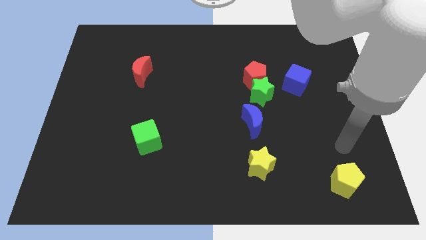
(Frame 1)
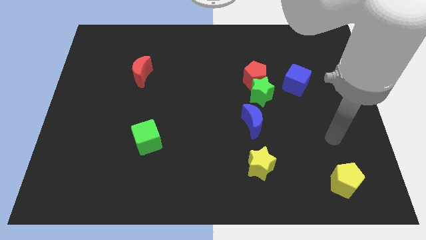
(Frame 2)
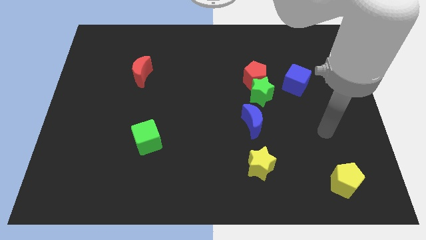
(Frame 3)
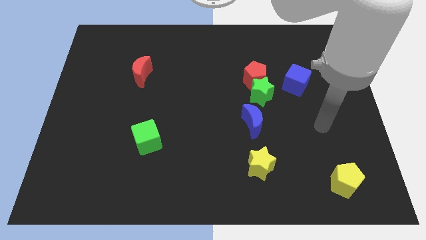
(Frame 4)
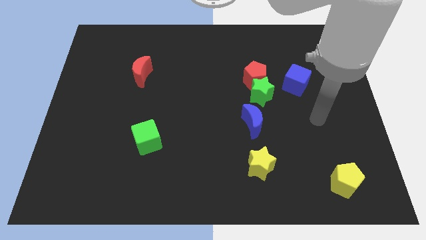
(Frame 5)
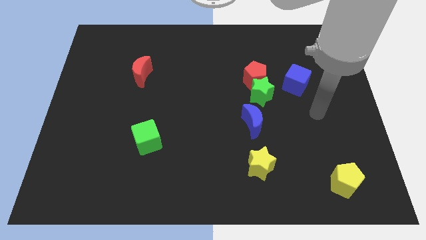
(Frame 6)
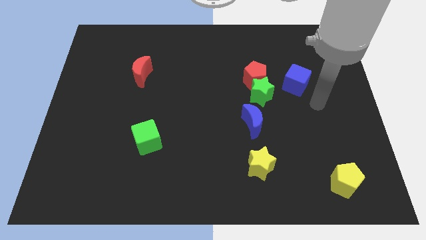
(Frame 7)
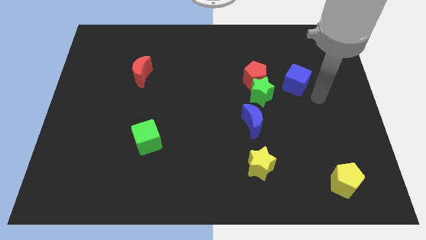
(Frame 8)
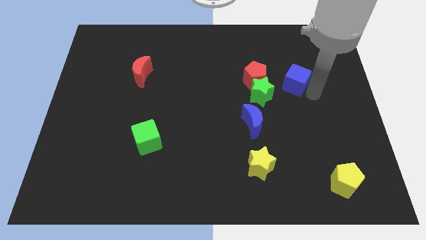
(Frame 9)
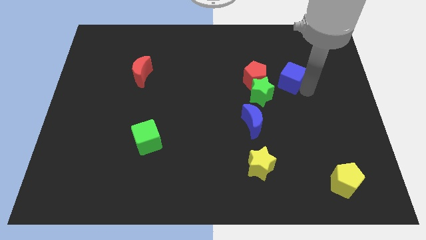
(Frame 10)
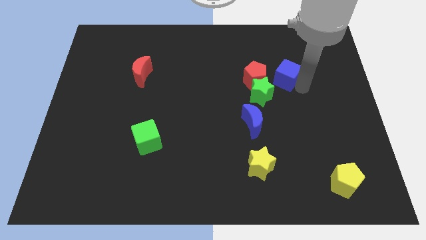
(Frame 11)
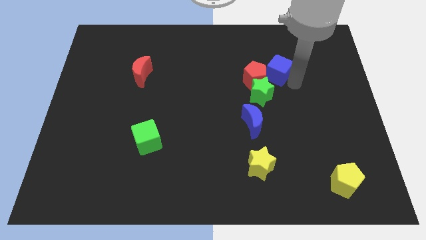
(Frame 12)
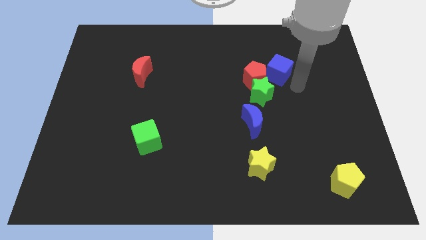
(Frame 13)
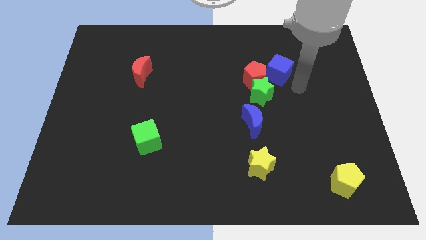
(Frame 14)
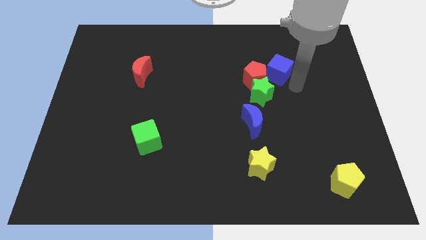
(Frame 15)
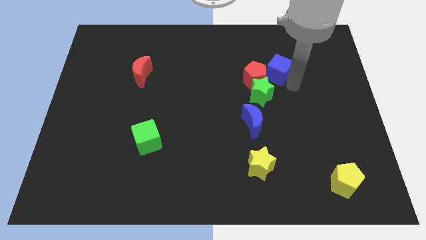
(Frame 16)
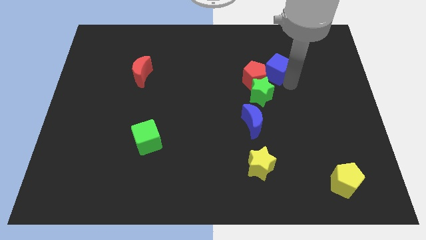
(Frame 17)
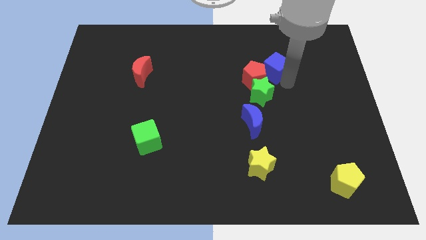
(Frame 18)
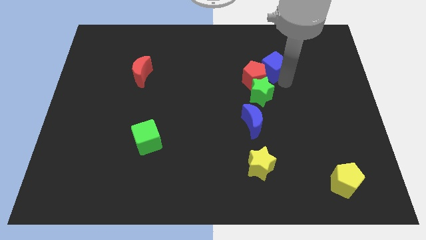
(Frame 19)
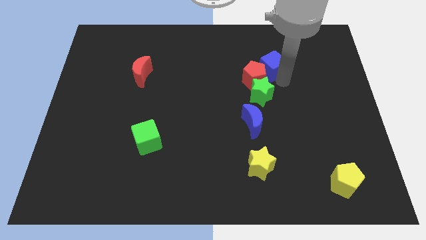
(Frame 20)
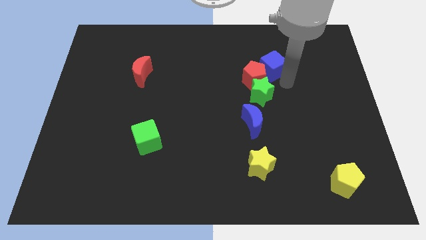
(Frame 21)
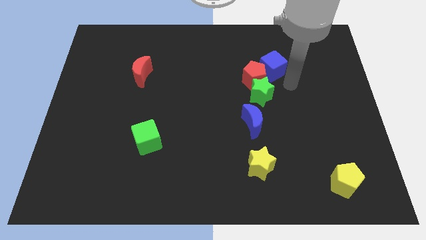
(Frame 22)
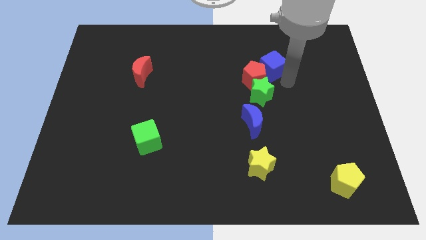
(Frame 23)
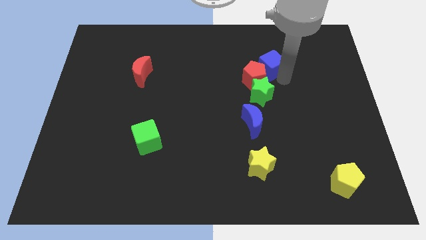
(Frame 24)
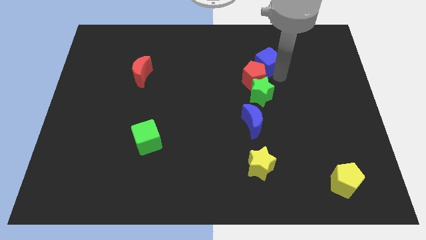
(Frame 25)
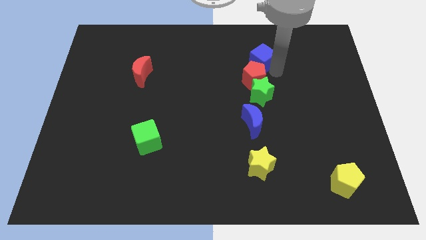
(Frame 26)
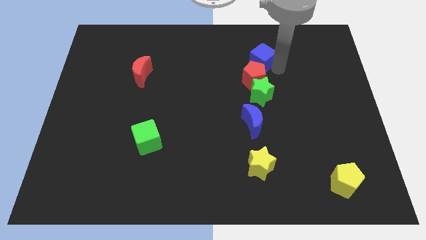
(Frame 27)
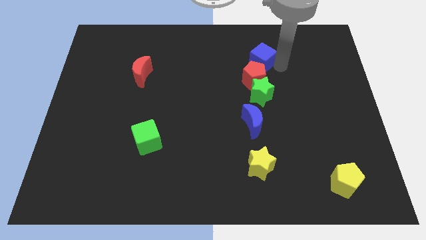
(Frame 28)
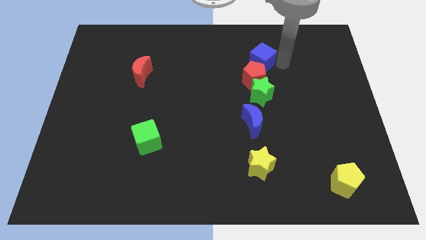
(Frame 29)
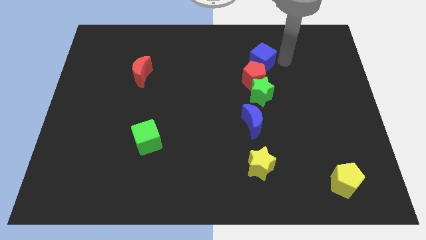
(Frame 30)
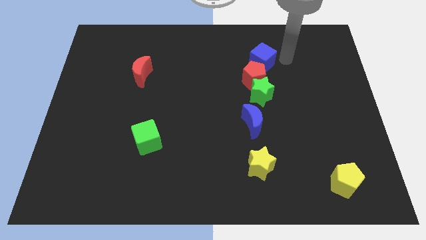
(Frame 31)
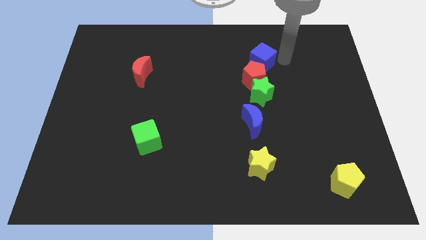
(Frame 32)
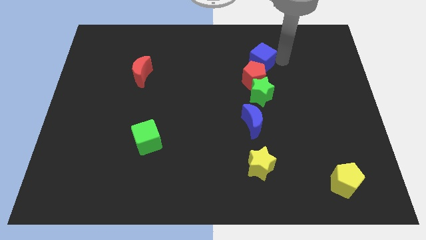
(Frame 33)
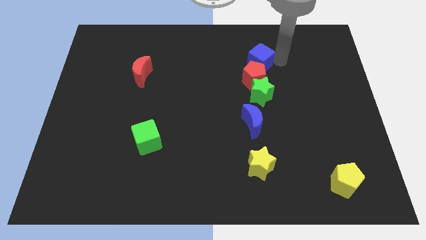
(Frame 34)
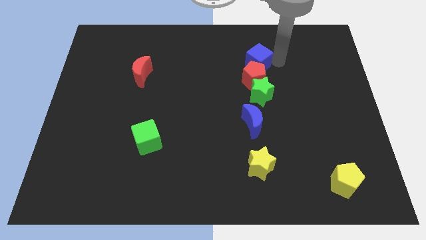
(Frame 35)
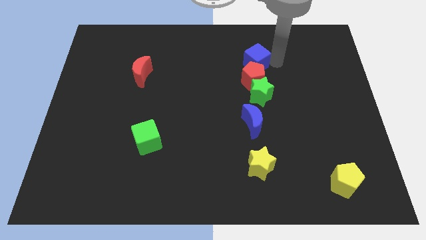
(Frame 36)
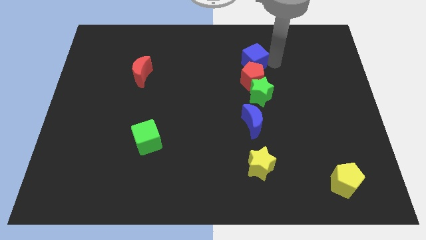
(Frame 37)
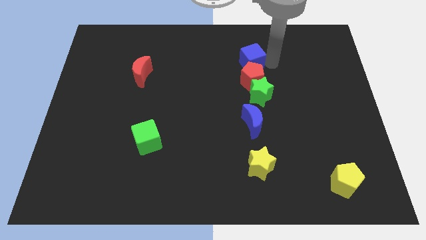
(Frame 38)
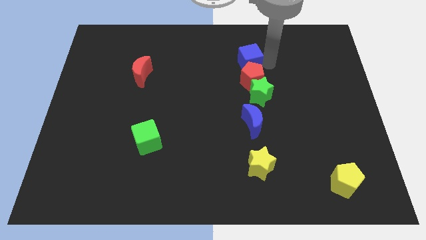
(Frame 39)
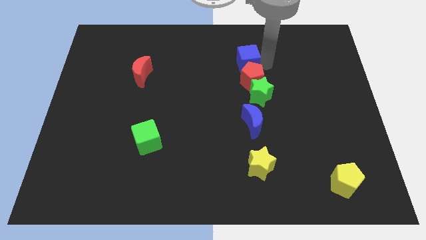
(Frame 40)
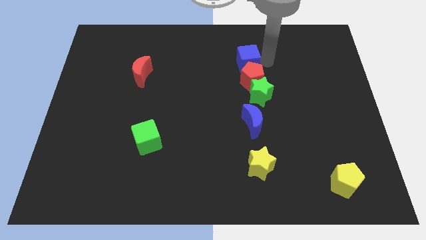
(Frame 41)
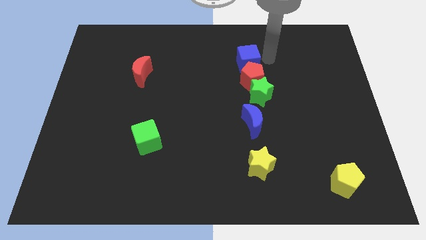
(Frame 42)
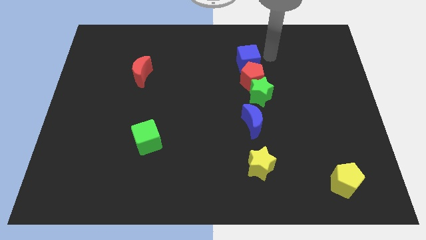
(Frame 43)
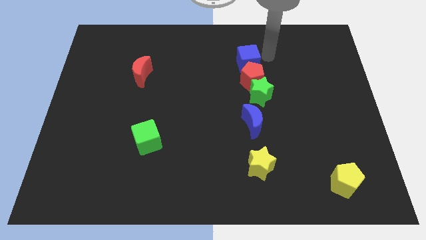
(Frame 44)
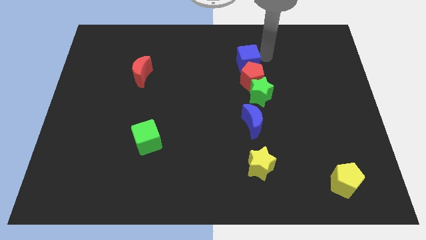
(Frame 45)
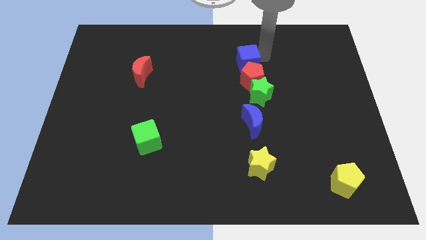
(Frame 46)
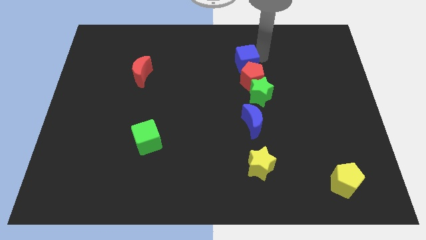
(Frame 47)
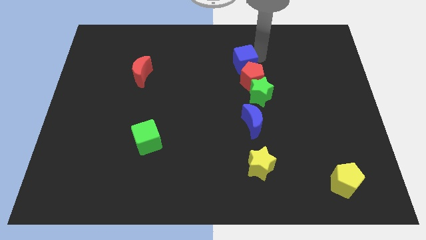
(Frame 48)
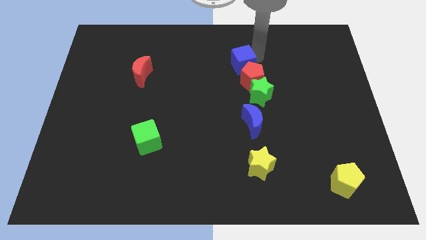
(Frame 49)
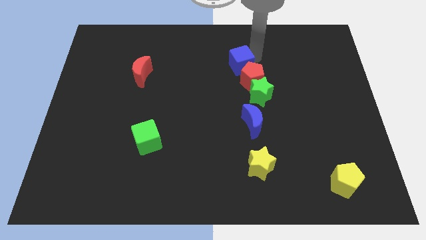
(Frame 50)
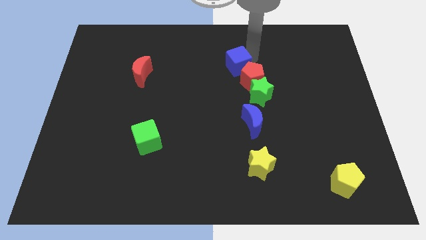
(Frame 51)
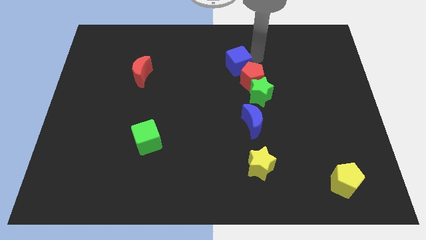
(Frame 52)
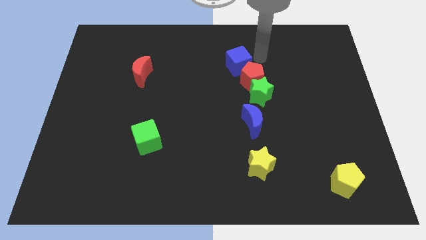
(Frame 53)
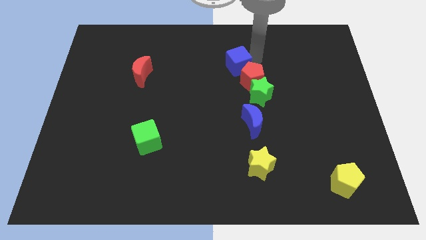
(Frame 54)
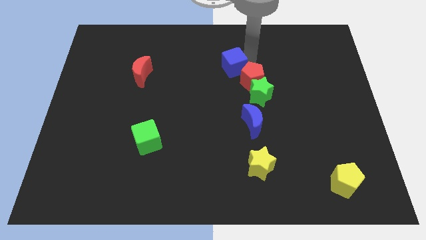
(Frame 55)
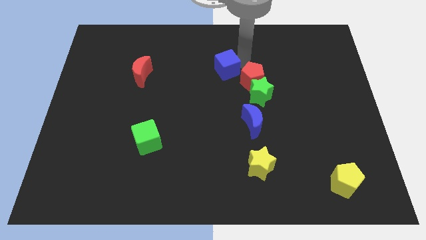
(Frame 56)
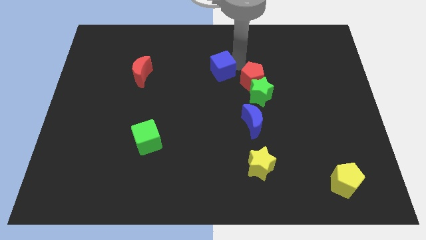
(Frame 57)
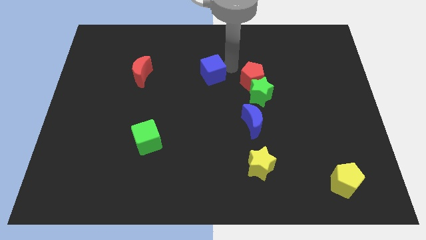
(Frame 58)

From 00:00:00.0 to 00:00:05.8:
slide the blue cube to the left

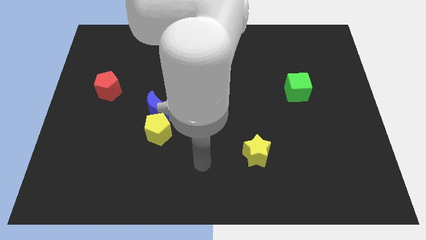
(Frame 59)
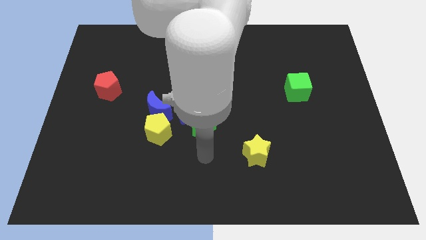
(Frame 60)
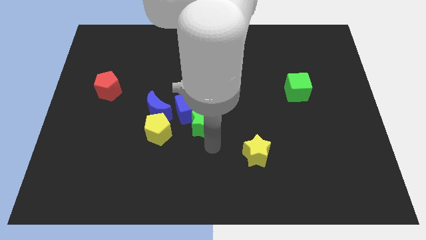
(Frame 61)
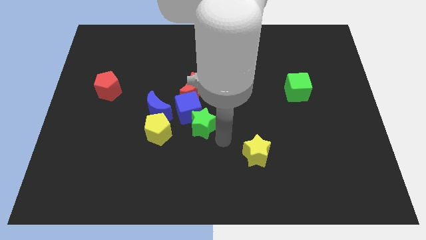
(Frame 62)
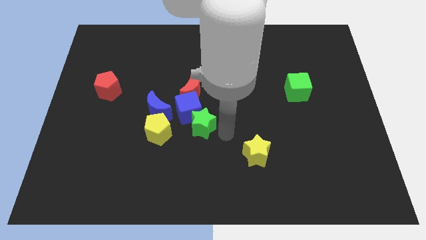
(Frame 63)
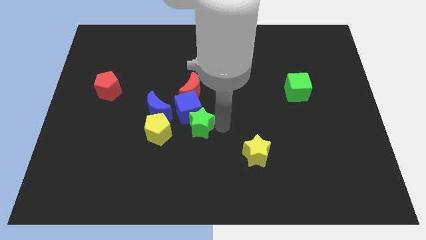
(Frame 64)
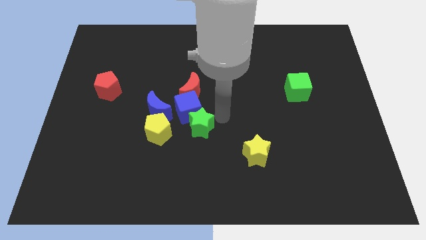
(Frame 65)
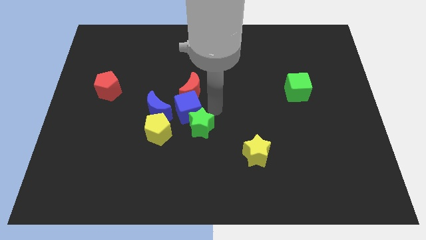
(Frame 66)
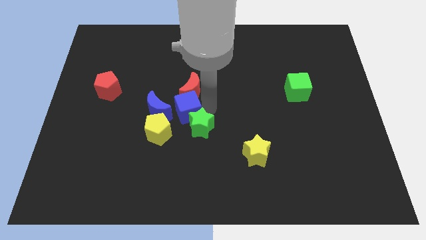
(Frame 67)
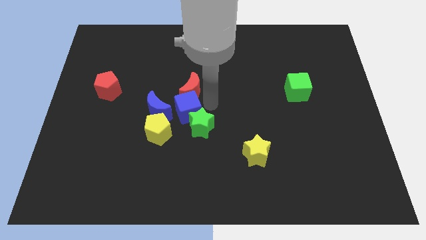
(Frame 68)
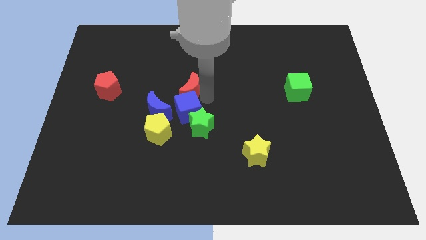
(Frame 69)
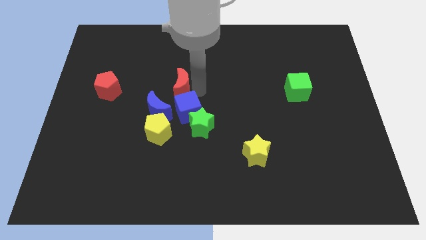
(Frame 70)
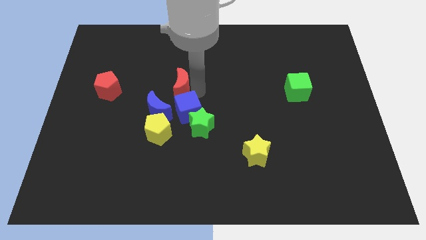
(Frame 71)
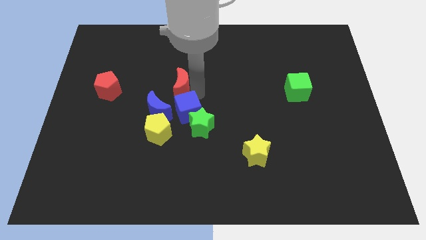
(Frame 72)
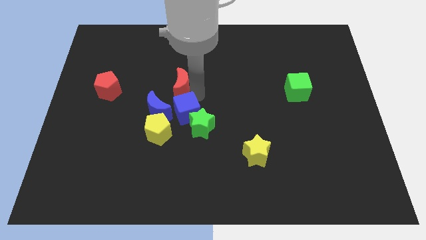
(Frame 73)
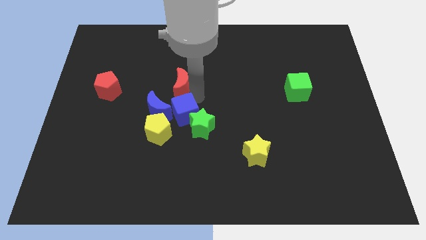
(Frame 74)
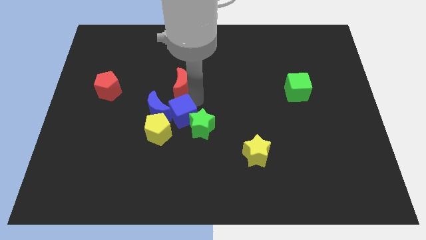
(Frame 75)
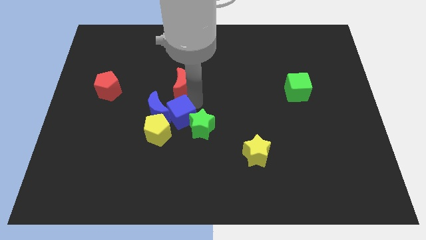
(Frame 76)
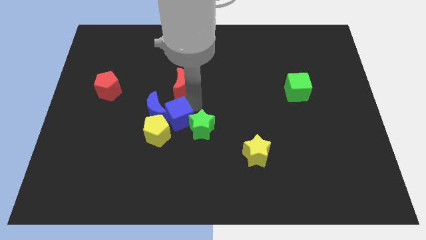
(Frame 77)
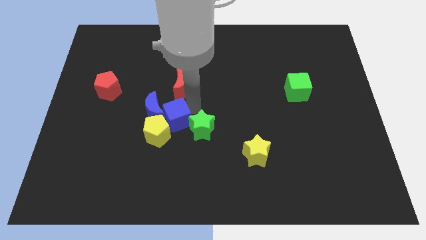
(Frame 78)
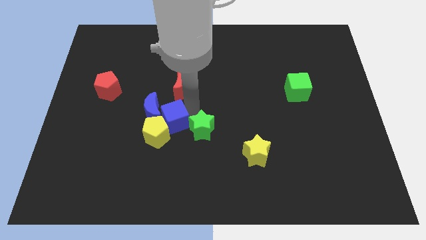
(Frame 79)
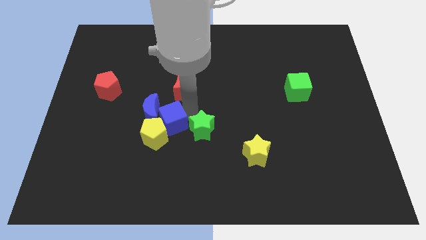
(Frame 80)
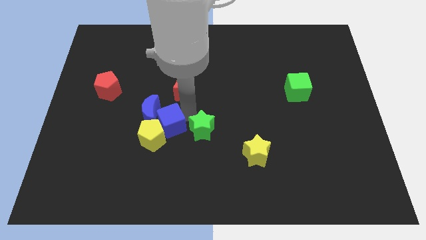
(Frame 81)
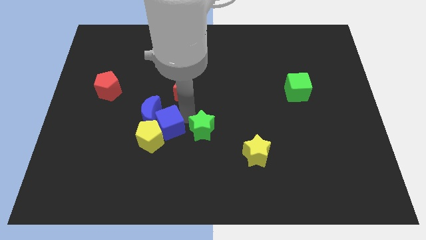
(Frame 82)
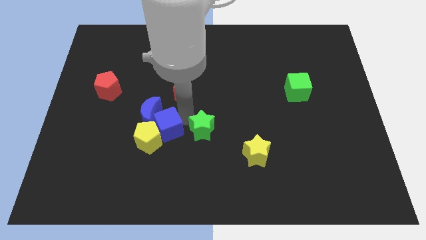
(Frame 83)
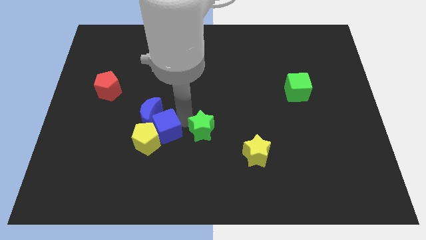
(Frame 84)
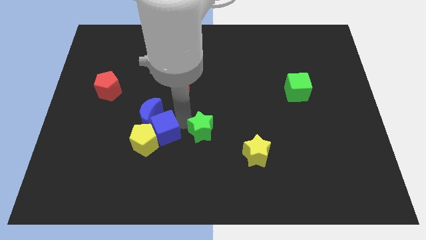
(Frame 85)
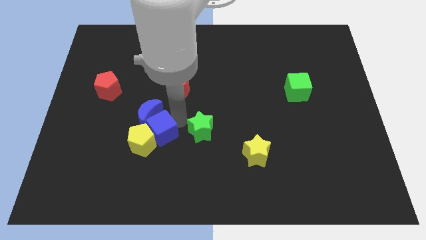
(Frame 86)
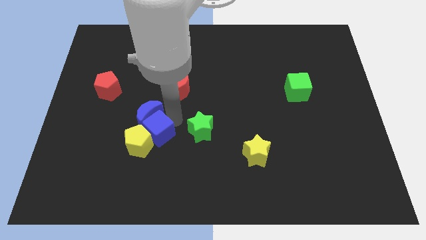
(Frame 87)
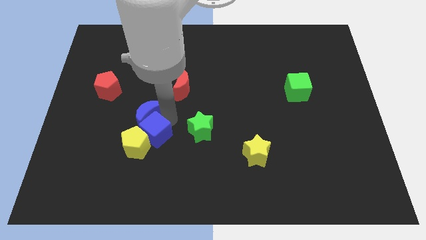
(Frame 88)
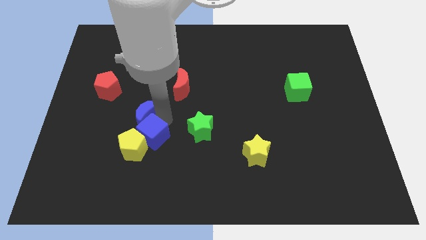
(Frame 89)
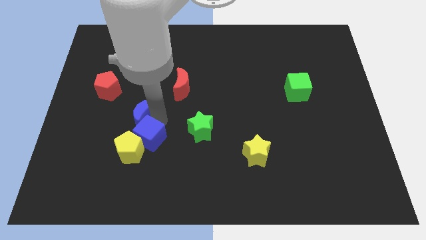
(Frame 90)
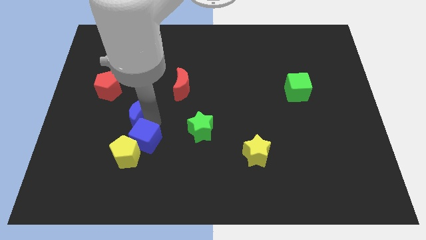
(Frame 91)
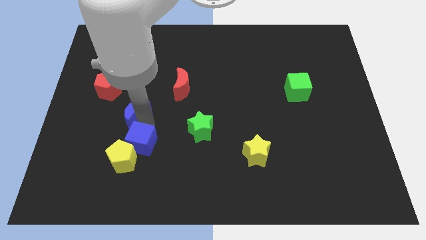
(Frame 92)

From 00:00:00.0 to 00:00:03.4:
slightly slide the blue cube left
